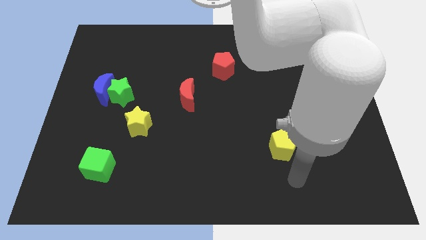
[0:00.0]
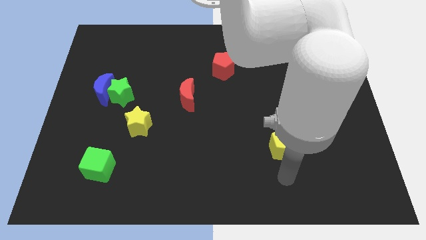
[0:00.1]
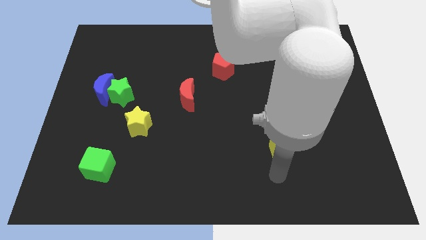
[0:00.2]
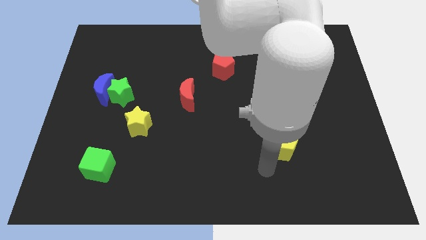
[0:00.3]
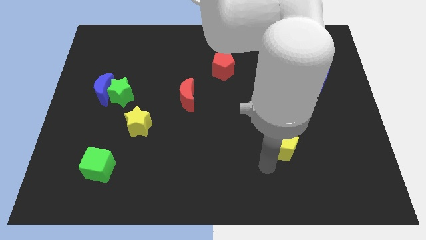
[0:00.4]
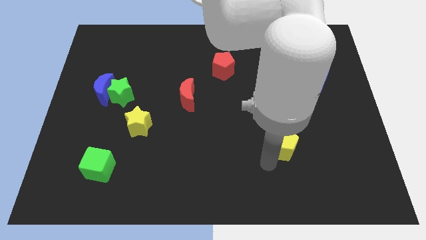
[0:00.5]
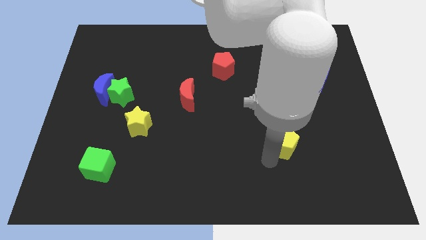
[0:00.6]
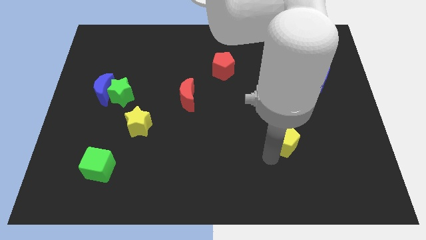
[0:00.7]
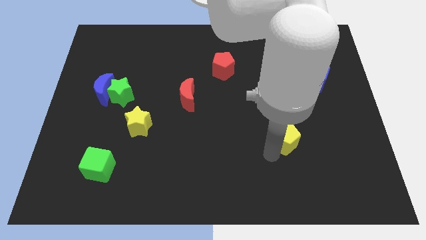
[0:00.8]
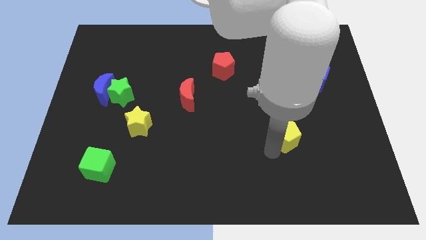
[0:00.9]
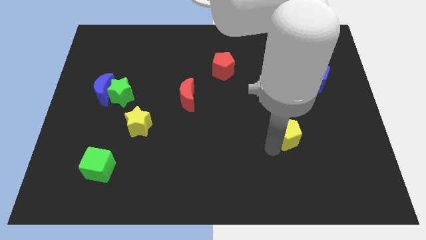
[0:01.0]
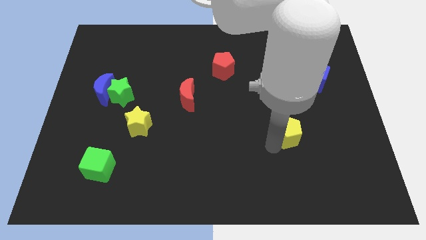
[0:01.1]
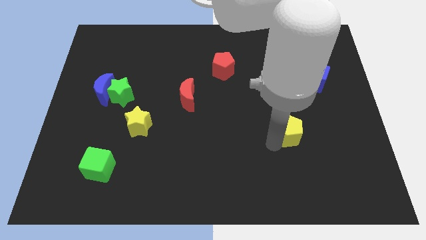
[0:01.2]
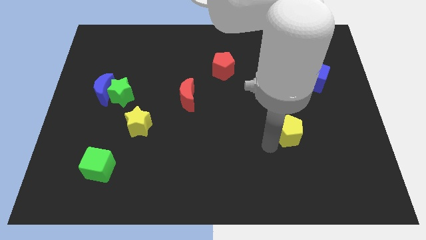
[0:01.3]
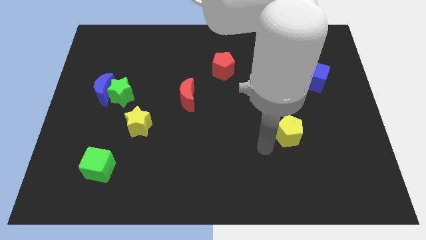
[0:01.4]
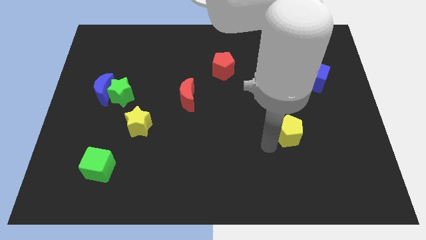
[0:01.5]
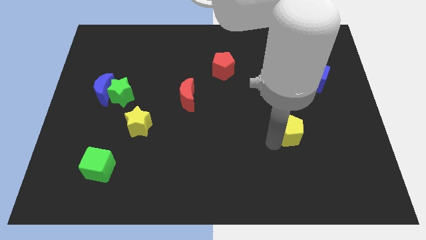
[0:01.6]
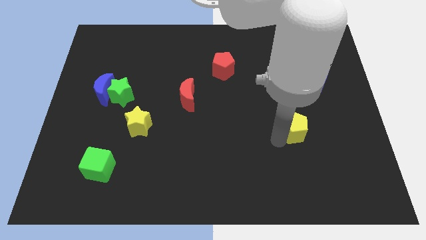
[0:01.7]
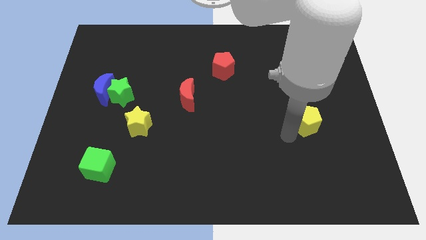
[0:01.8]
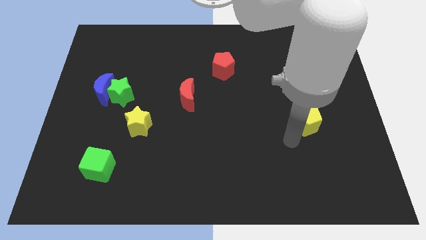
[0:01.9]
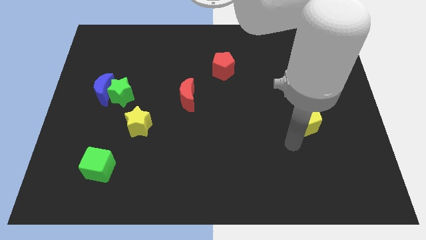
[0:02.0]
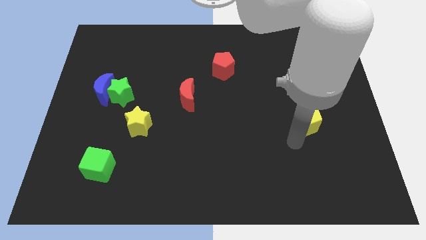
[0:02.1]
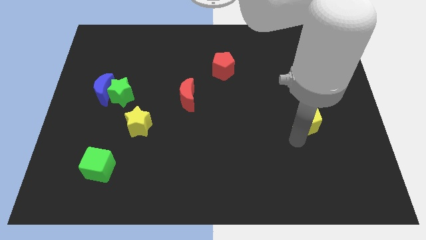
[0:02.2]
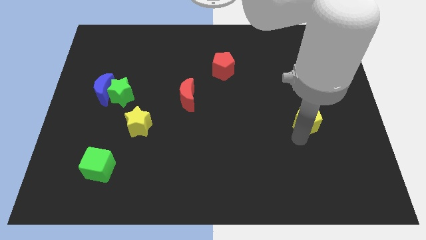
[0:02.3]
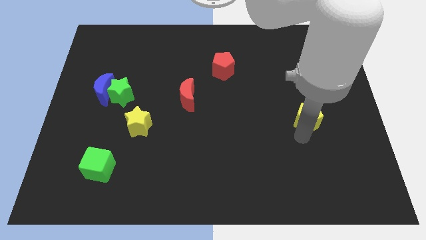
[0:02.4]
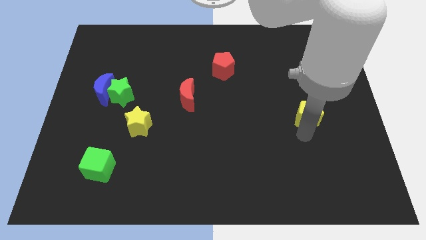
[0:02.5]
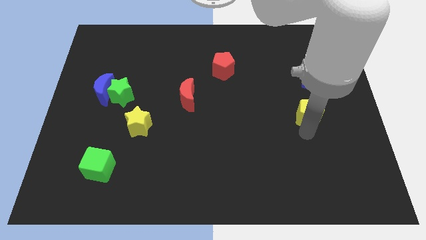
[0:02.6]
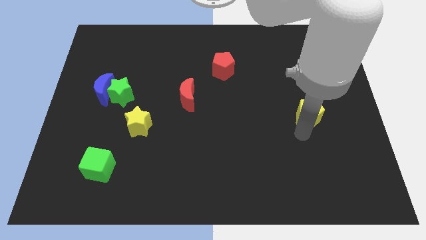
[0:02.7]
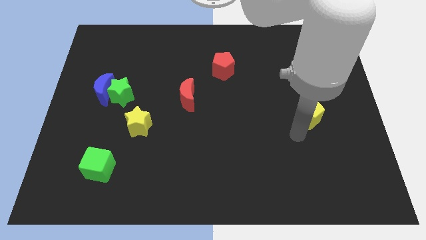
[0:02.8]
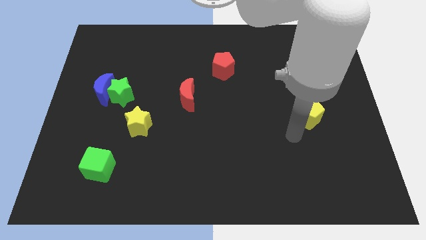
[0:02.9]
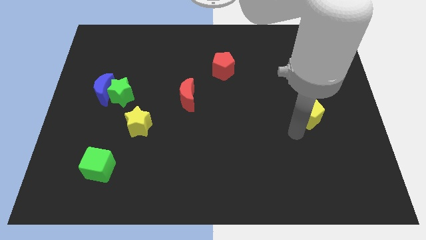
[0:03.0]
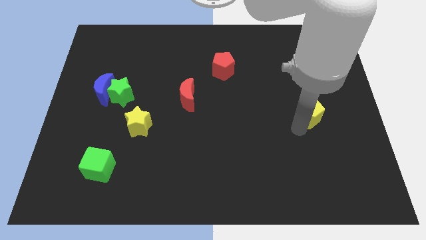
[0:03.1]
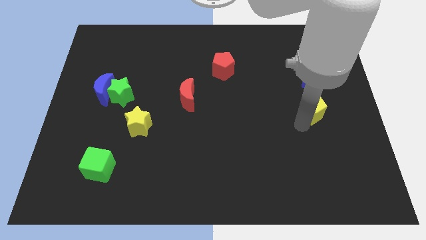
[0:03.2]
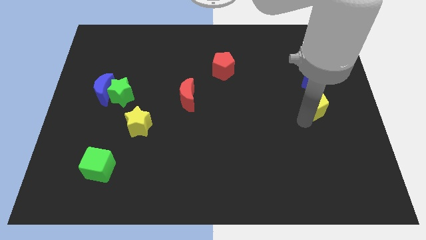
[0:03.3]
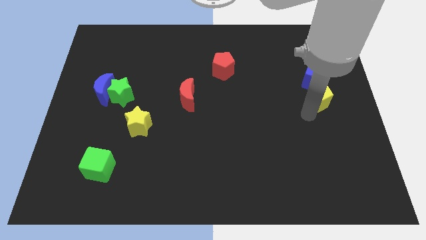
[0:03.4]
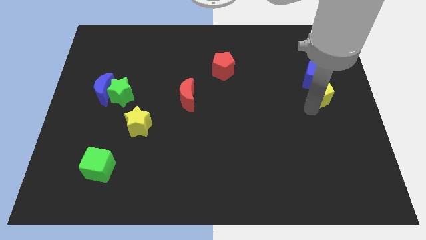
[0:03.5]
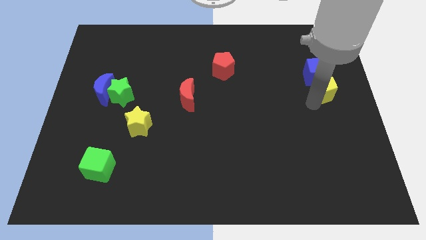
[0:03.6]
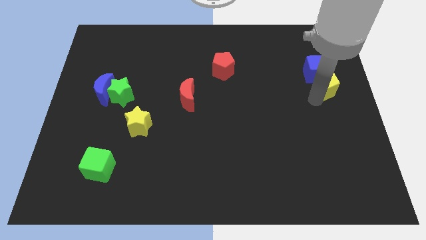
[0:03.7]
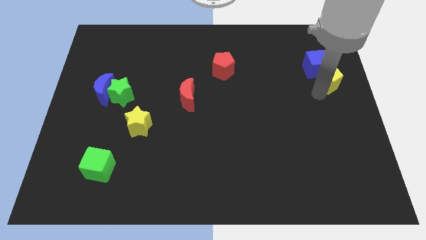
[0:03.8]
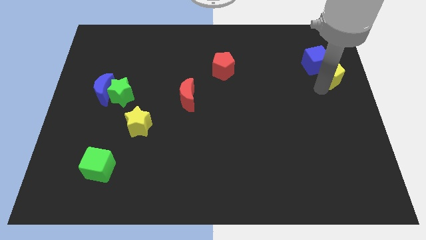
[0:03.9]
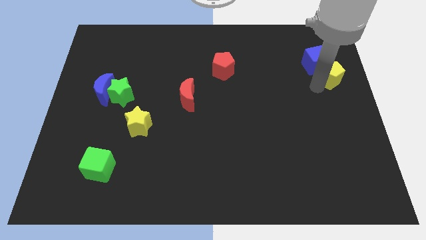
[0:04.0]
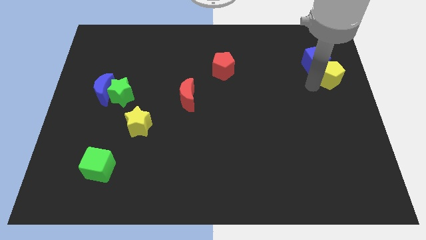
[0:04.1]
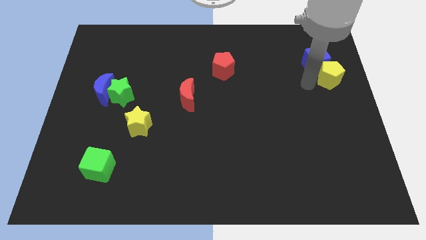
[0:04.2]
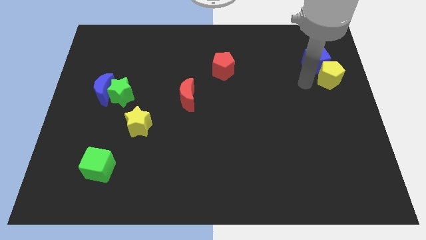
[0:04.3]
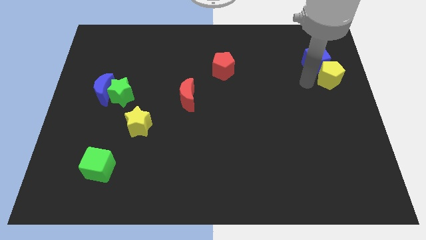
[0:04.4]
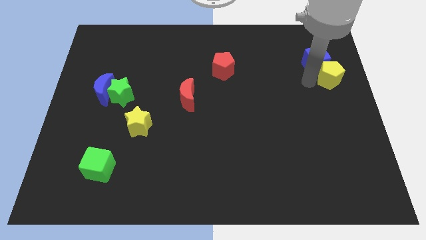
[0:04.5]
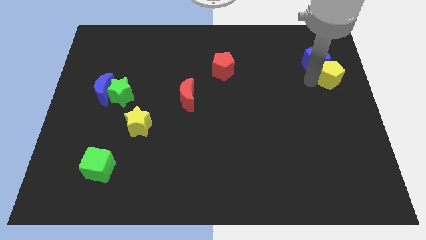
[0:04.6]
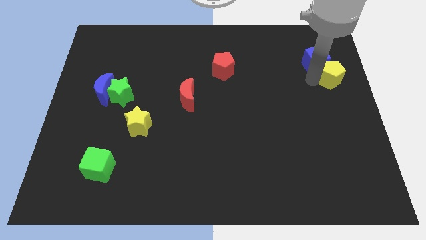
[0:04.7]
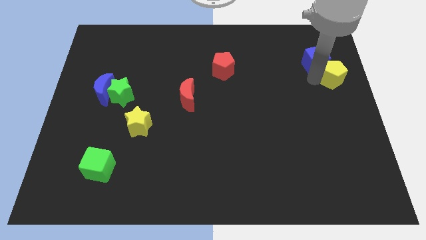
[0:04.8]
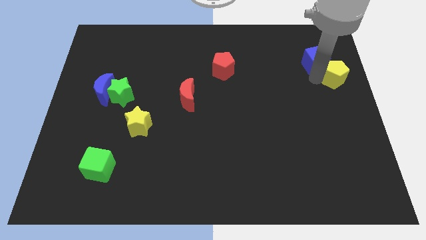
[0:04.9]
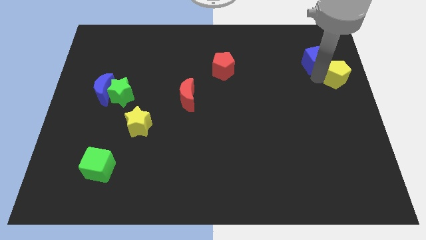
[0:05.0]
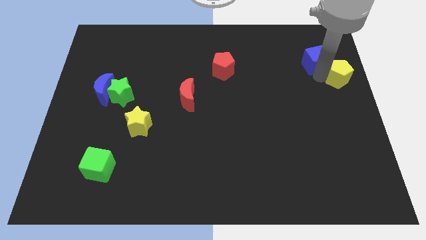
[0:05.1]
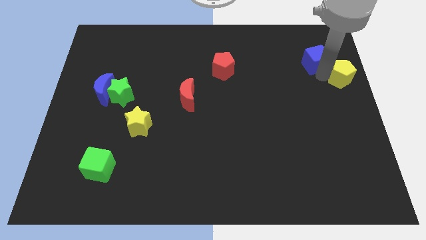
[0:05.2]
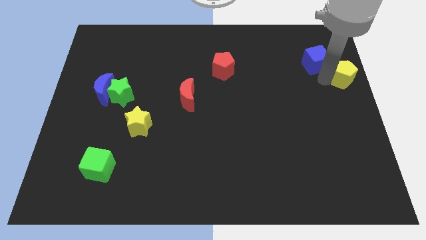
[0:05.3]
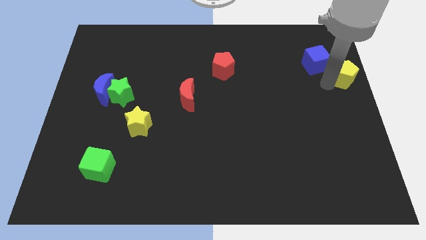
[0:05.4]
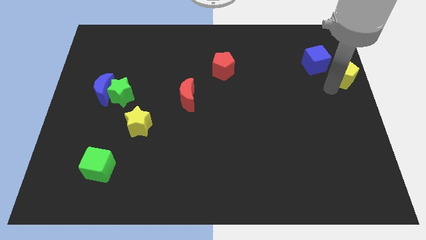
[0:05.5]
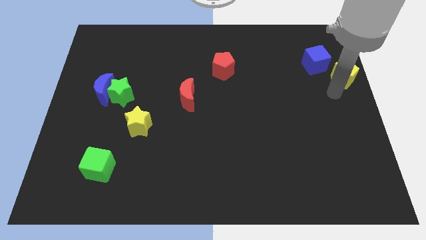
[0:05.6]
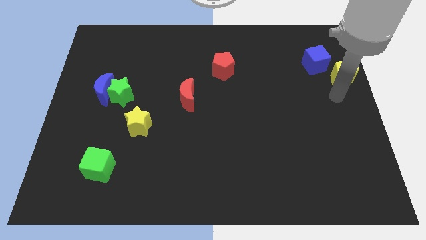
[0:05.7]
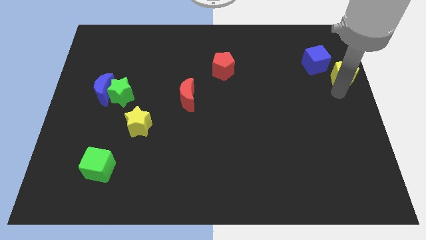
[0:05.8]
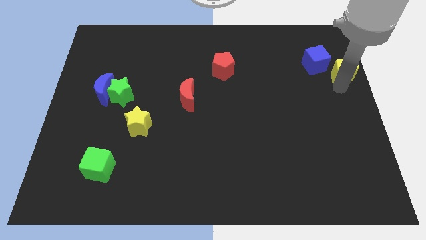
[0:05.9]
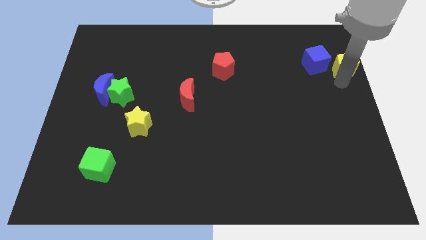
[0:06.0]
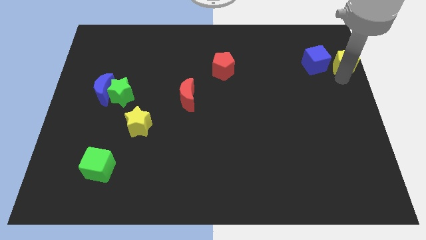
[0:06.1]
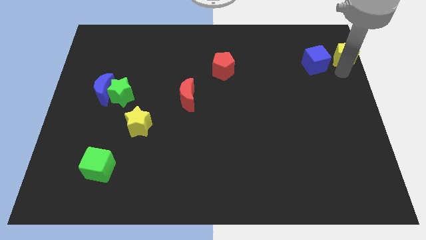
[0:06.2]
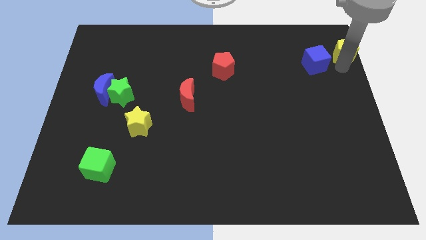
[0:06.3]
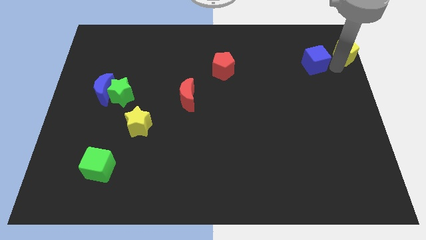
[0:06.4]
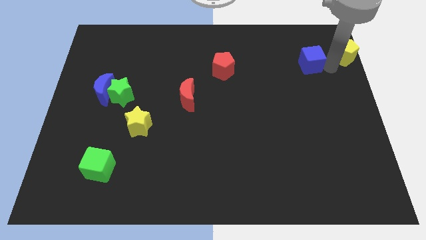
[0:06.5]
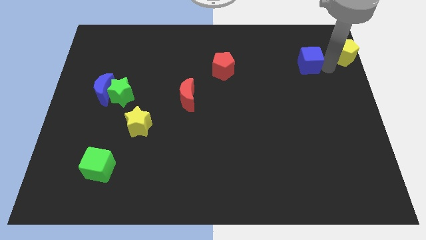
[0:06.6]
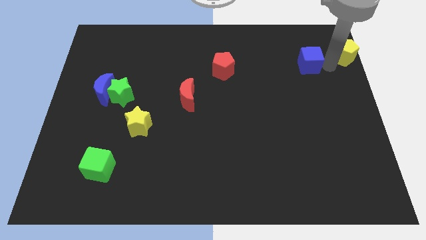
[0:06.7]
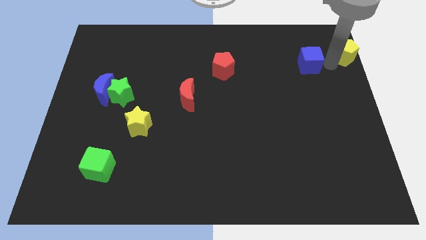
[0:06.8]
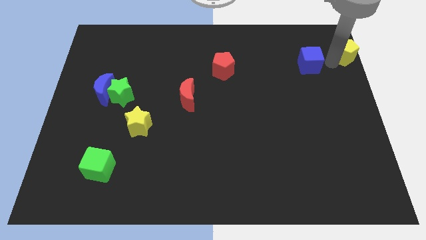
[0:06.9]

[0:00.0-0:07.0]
move the yellow pentagon to the upper right corner

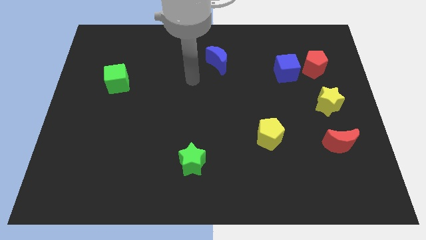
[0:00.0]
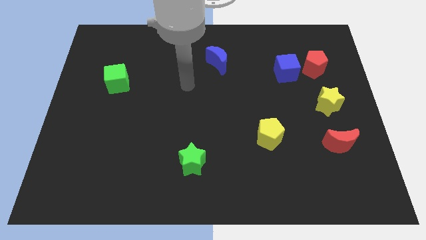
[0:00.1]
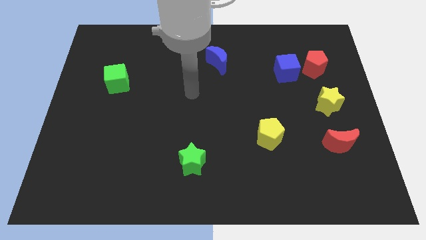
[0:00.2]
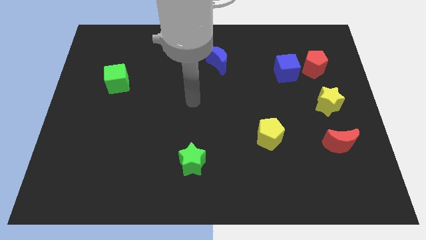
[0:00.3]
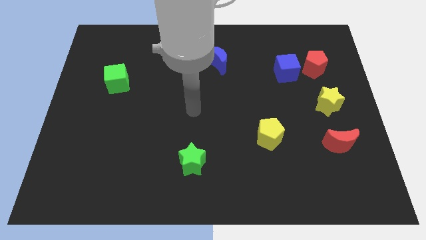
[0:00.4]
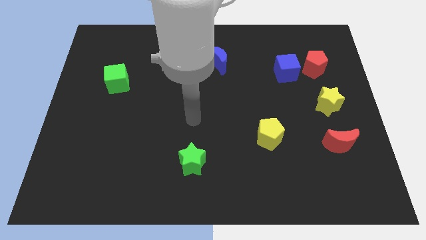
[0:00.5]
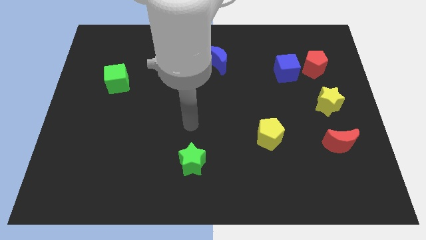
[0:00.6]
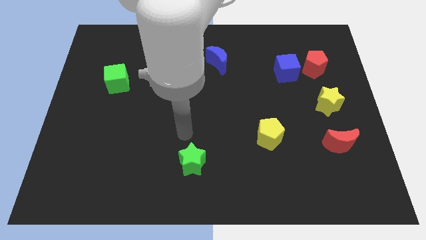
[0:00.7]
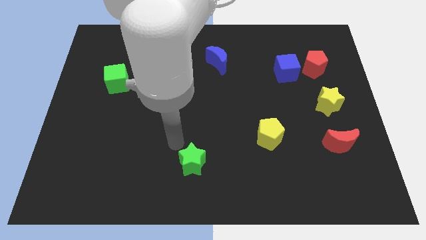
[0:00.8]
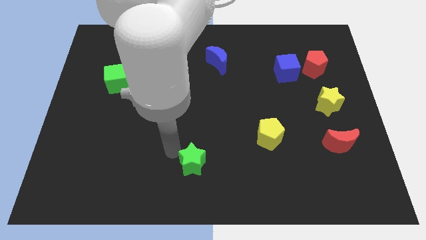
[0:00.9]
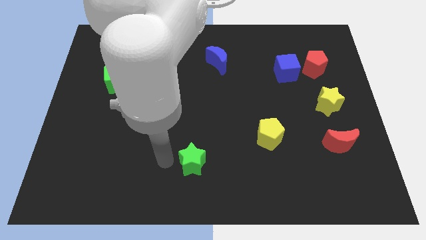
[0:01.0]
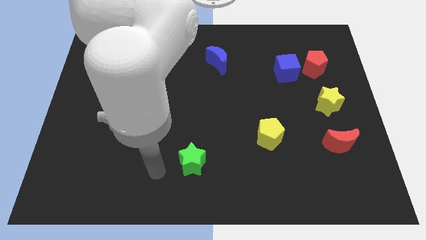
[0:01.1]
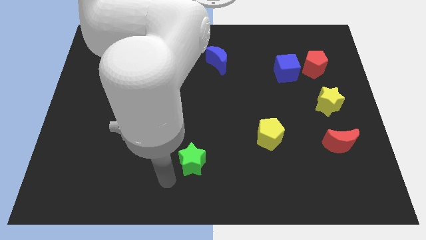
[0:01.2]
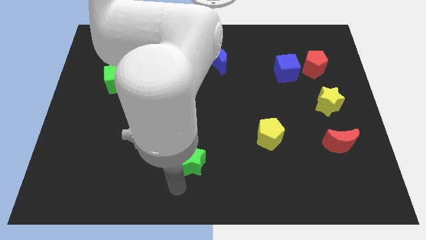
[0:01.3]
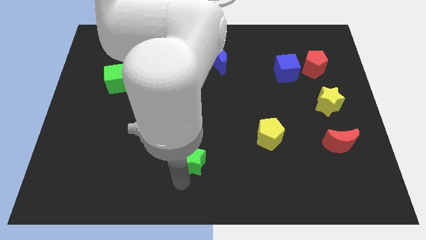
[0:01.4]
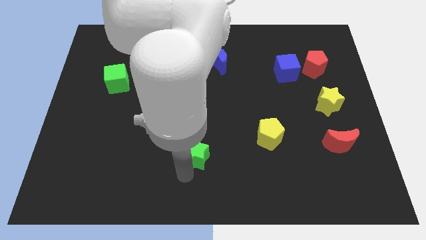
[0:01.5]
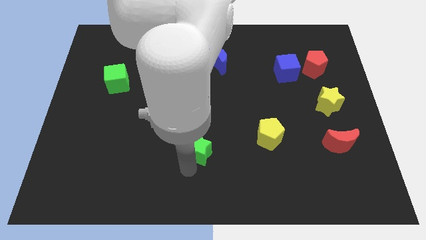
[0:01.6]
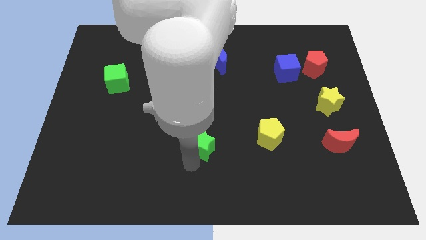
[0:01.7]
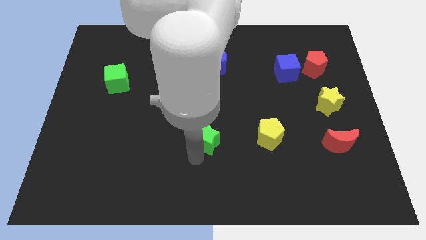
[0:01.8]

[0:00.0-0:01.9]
push the green star to the center
